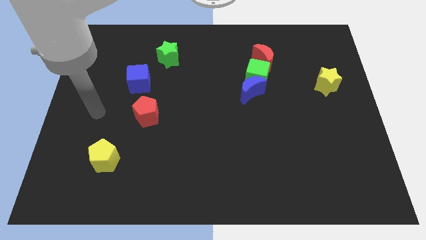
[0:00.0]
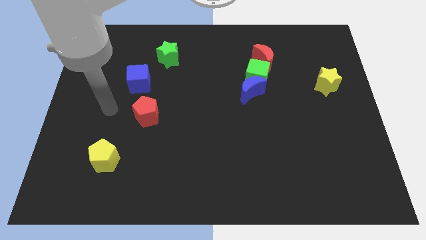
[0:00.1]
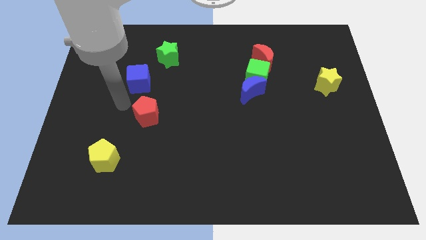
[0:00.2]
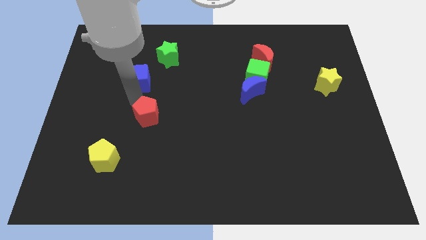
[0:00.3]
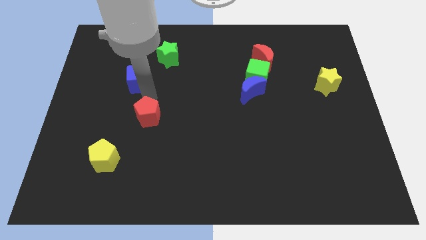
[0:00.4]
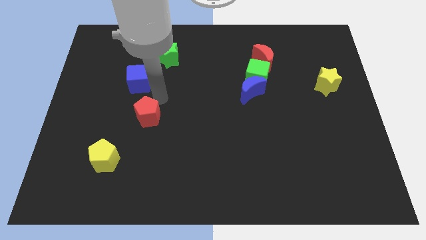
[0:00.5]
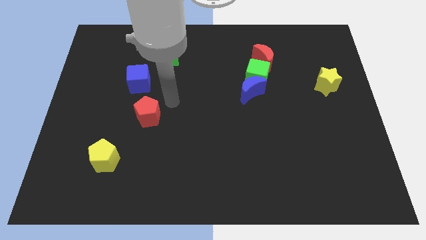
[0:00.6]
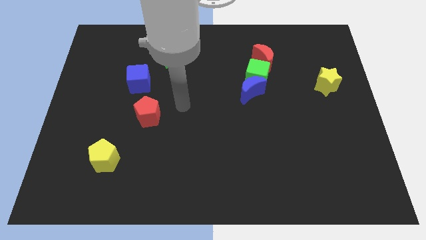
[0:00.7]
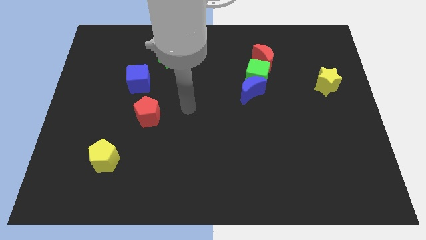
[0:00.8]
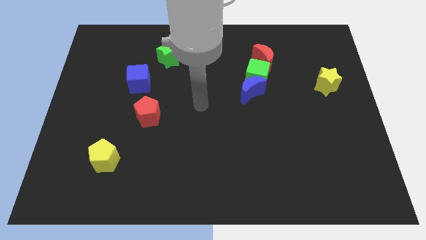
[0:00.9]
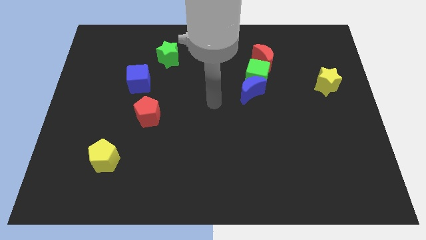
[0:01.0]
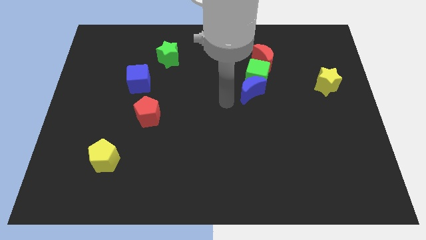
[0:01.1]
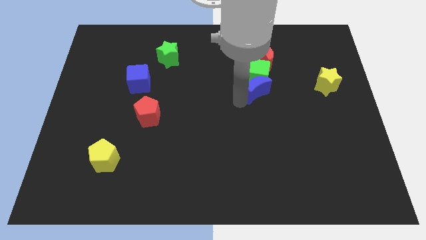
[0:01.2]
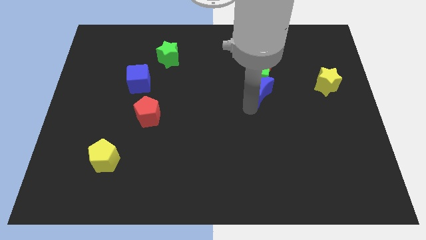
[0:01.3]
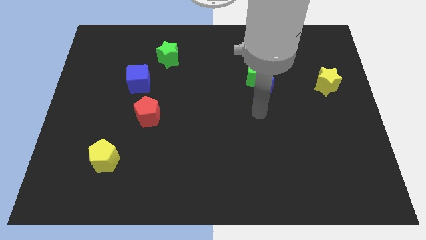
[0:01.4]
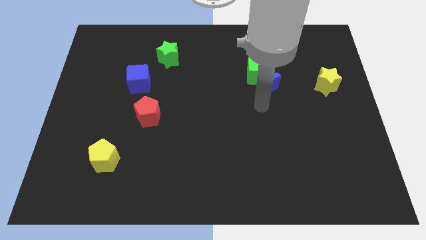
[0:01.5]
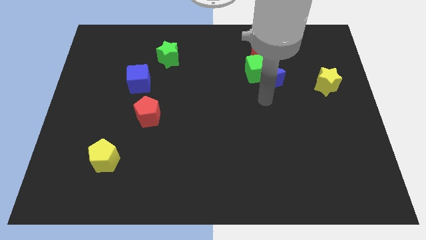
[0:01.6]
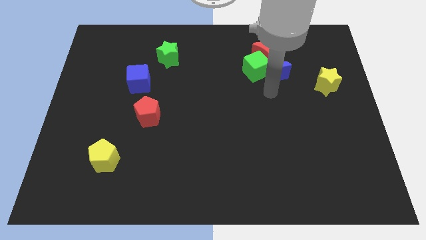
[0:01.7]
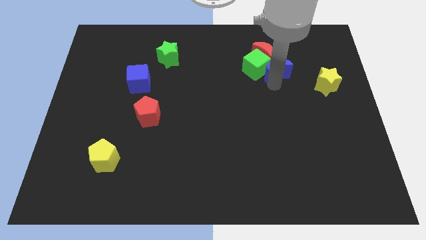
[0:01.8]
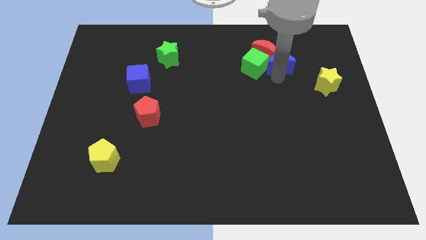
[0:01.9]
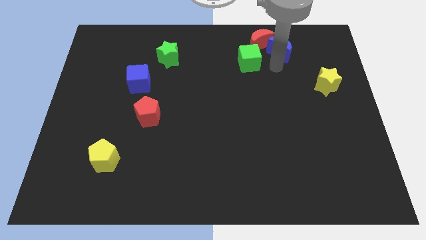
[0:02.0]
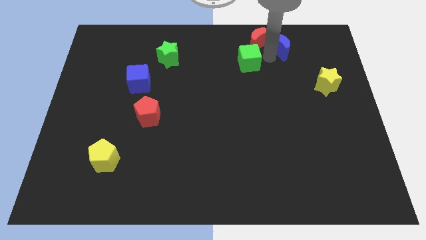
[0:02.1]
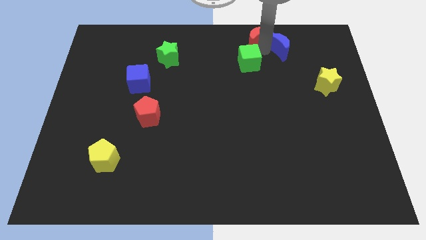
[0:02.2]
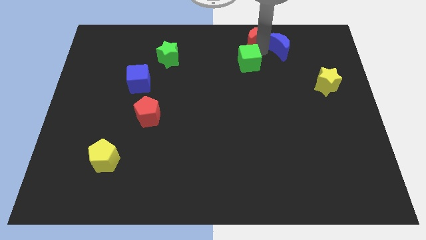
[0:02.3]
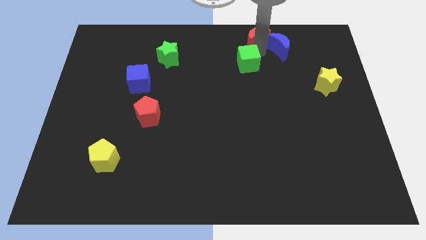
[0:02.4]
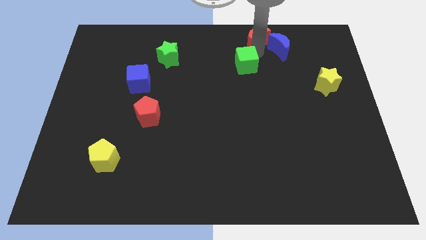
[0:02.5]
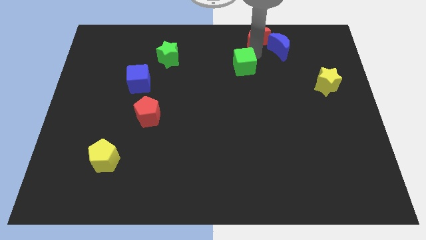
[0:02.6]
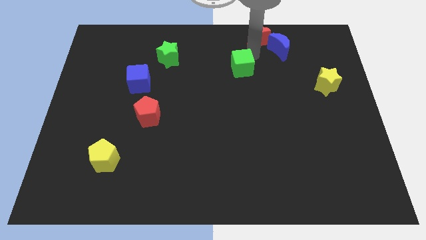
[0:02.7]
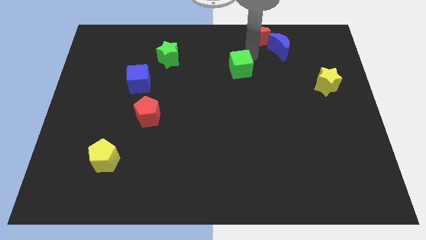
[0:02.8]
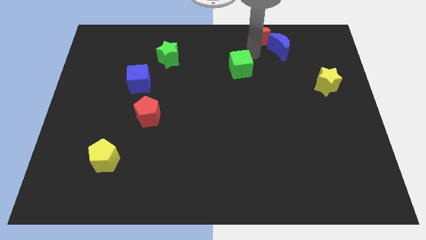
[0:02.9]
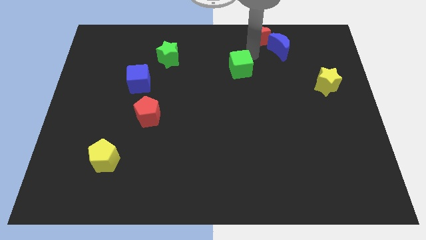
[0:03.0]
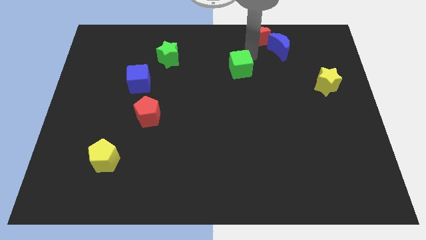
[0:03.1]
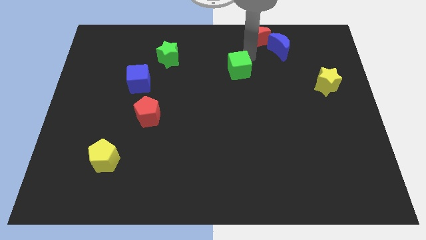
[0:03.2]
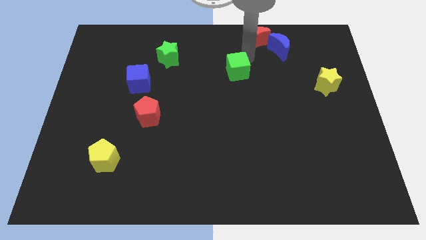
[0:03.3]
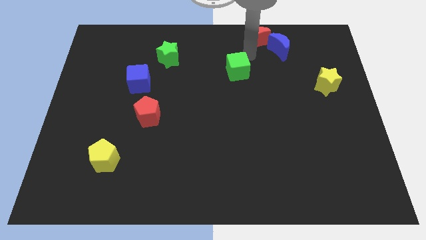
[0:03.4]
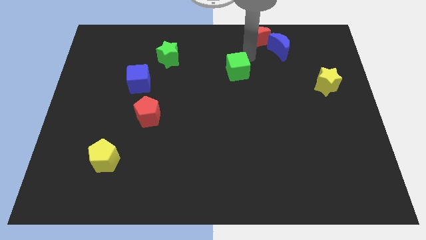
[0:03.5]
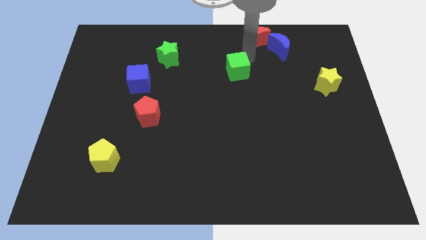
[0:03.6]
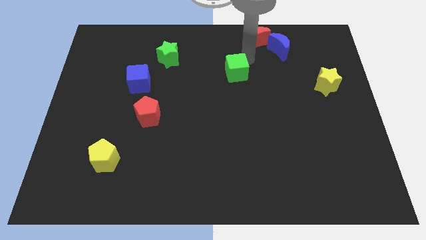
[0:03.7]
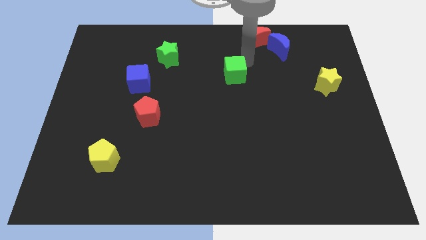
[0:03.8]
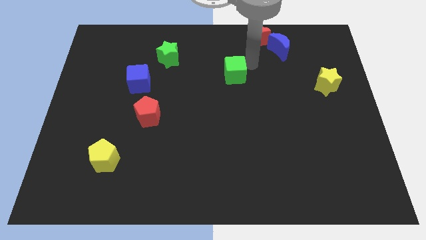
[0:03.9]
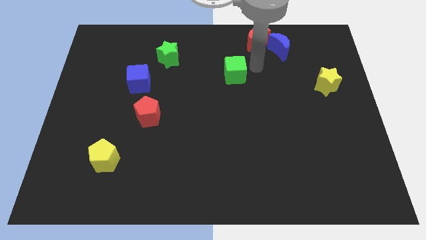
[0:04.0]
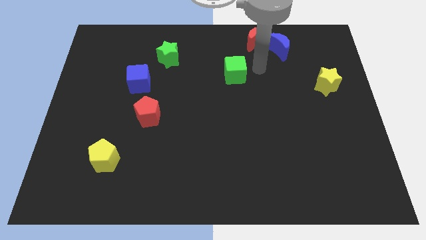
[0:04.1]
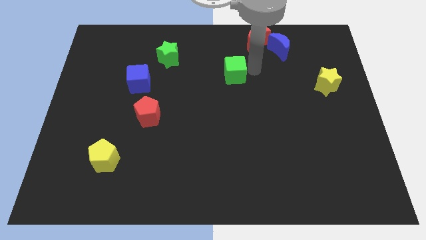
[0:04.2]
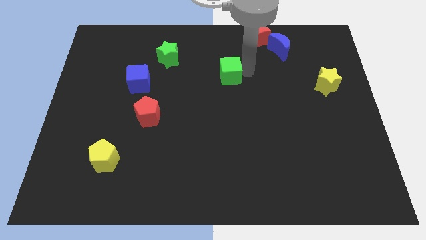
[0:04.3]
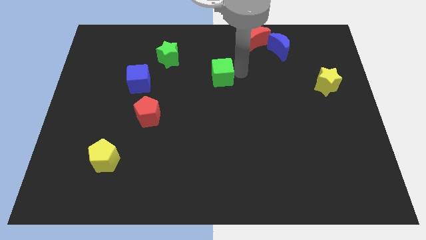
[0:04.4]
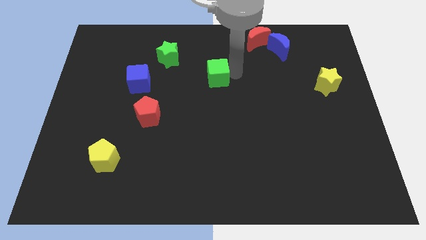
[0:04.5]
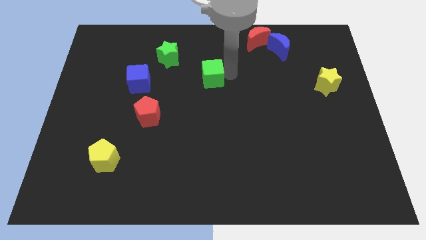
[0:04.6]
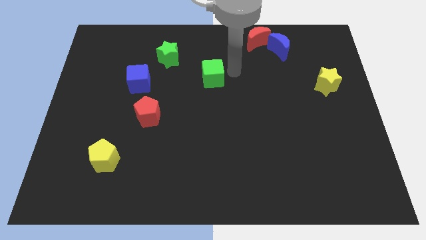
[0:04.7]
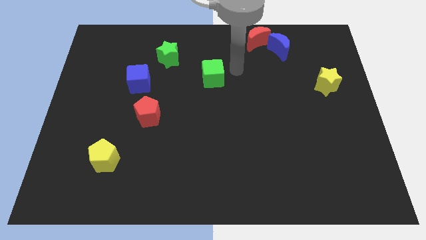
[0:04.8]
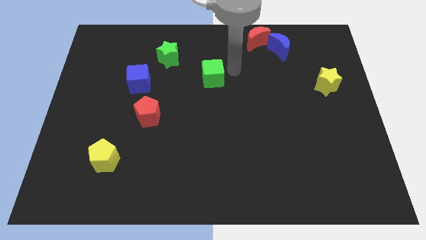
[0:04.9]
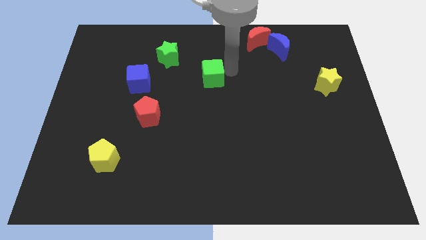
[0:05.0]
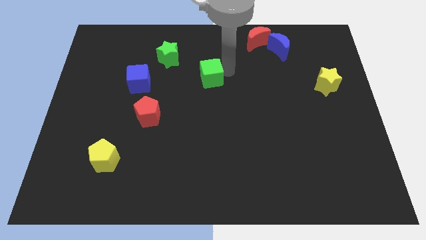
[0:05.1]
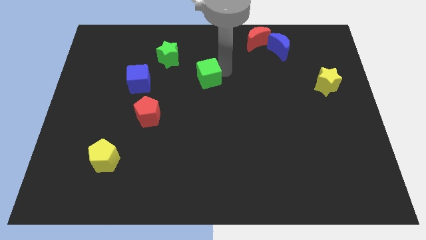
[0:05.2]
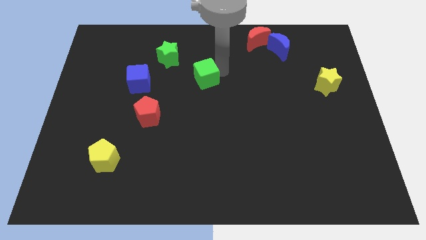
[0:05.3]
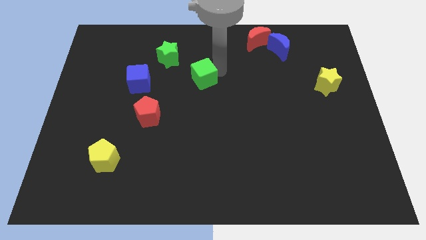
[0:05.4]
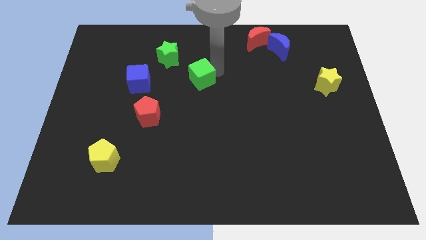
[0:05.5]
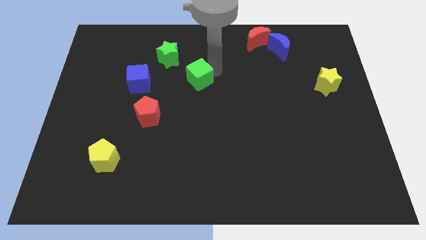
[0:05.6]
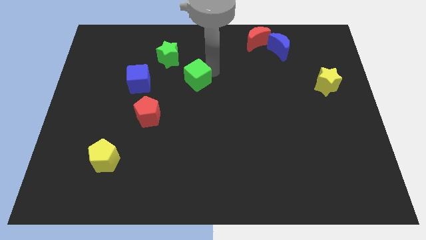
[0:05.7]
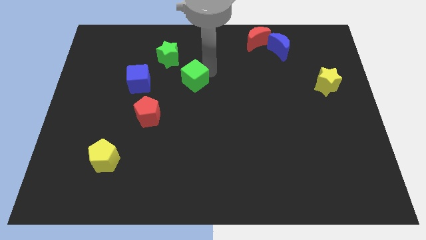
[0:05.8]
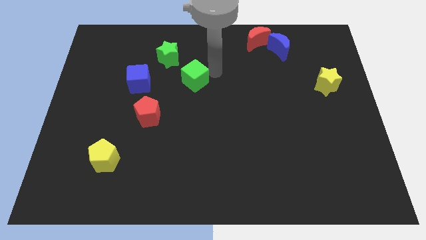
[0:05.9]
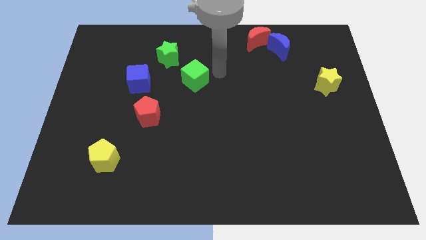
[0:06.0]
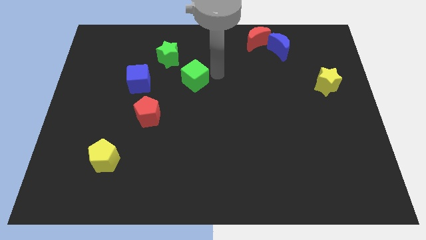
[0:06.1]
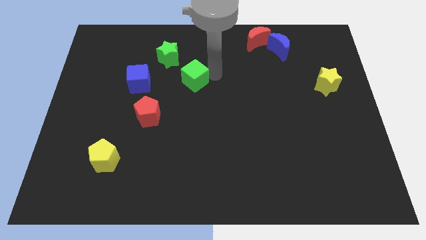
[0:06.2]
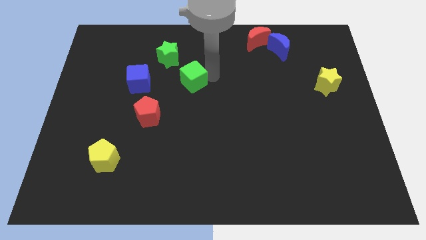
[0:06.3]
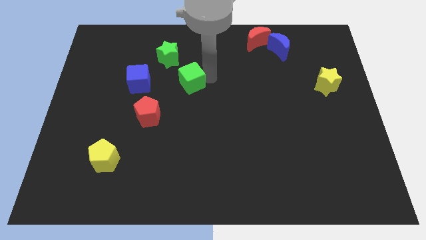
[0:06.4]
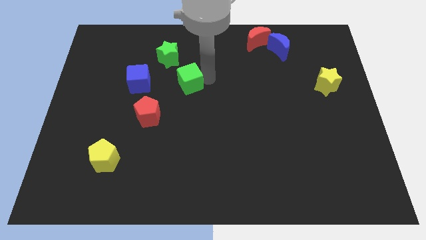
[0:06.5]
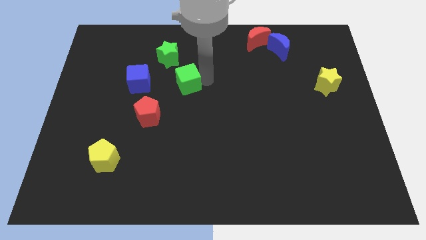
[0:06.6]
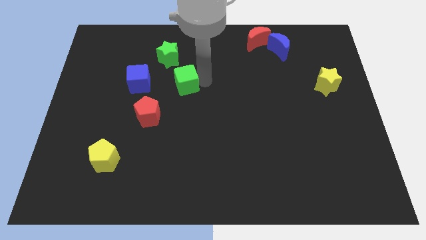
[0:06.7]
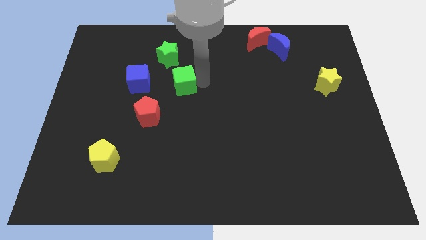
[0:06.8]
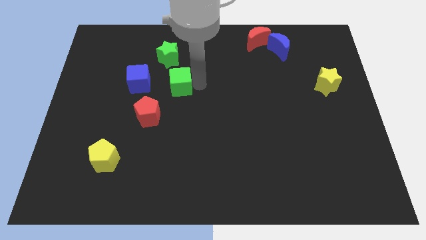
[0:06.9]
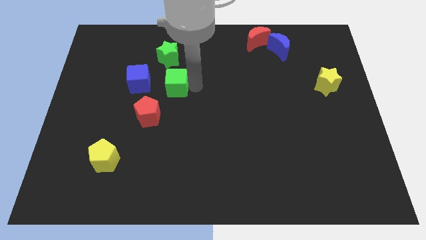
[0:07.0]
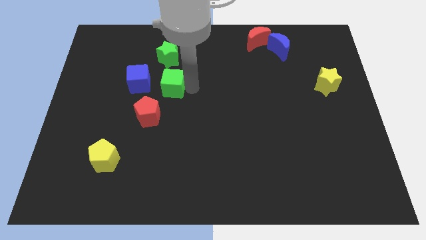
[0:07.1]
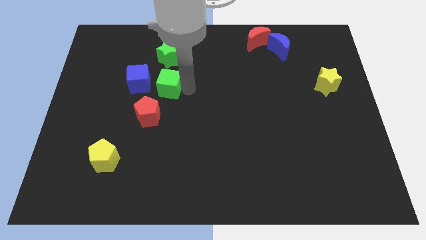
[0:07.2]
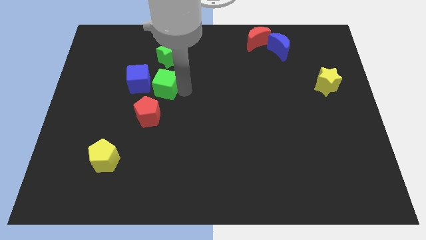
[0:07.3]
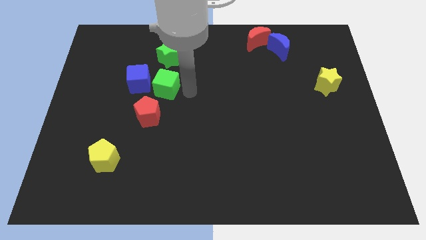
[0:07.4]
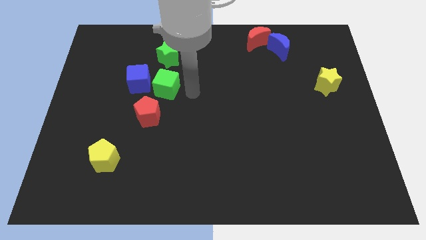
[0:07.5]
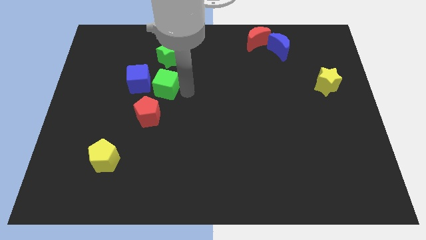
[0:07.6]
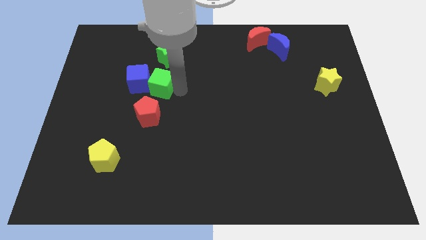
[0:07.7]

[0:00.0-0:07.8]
slide the green cube to the blue cube
